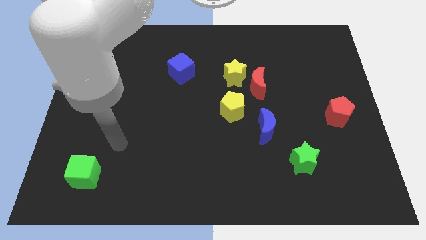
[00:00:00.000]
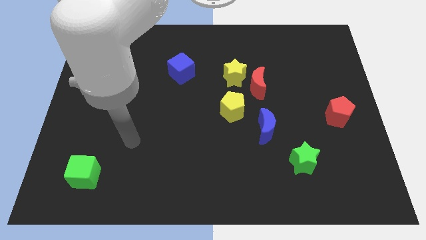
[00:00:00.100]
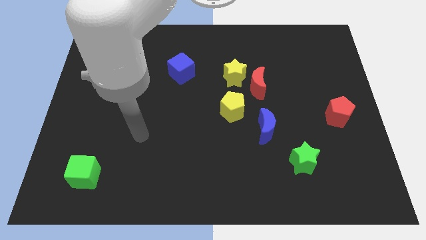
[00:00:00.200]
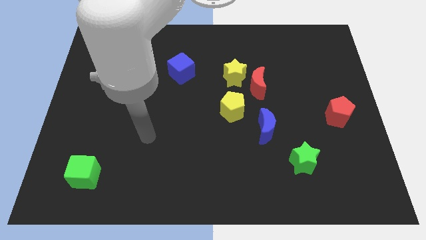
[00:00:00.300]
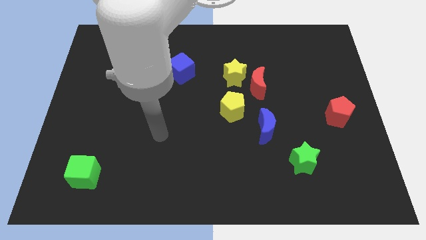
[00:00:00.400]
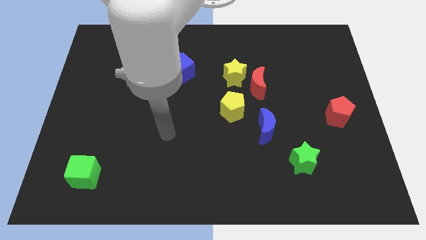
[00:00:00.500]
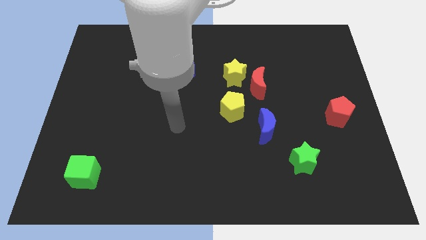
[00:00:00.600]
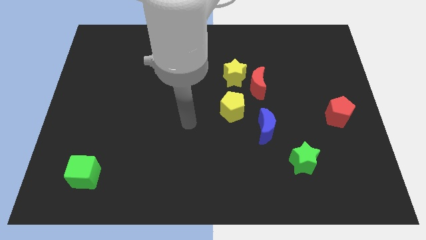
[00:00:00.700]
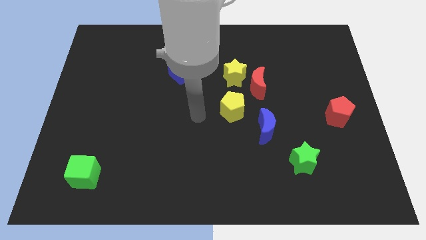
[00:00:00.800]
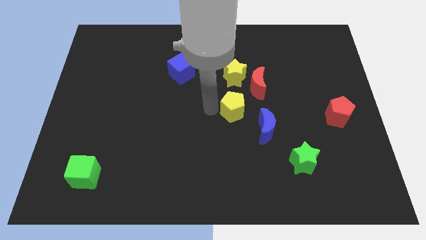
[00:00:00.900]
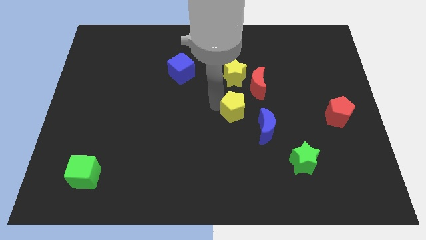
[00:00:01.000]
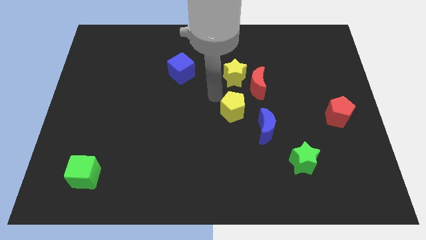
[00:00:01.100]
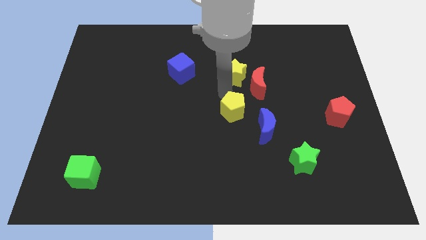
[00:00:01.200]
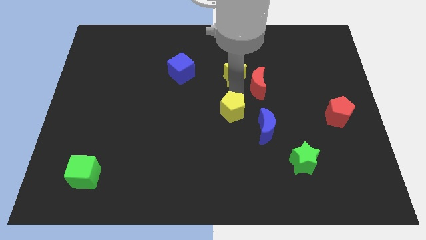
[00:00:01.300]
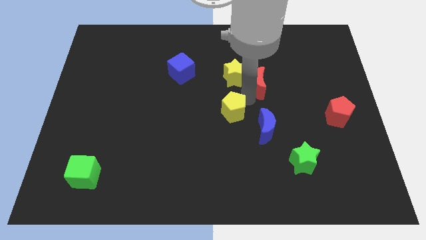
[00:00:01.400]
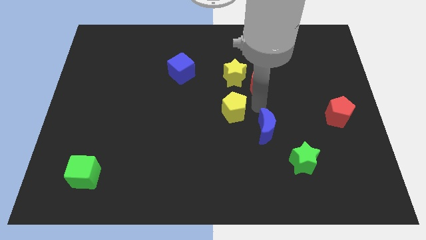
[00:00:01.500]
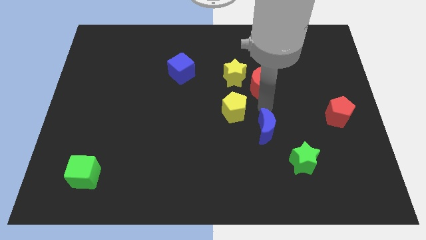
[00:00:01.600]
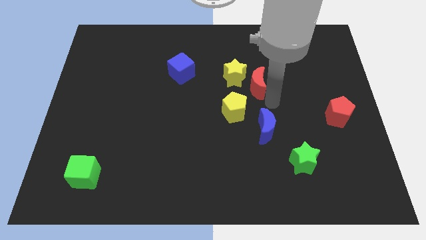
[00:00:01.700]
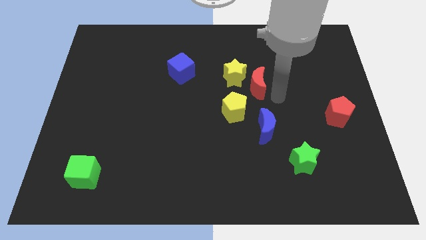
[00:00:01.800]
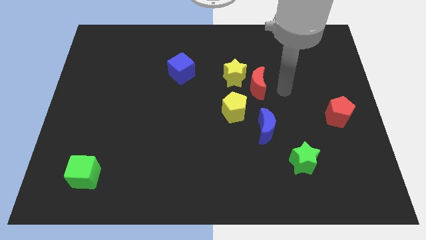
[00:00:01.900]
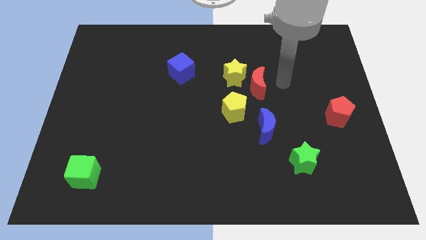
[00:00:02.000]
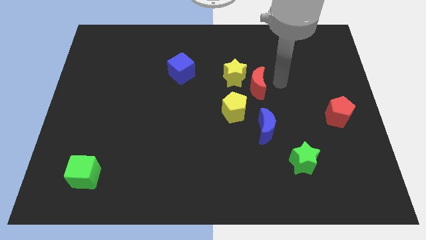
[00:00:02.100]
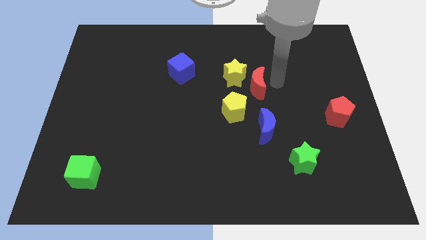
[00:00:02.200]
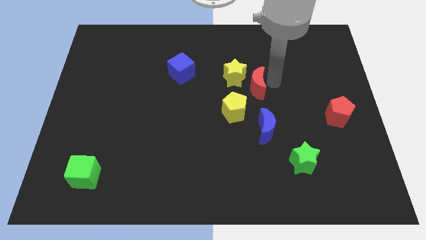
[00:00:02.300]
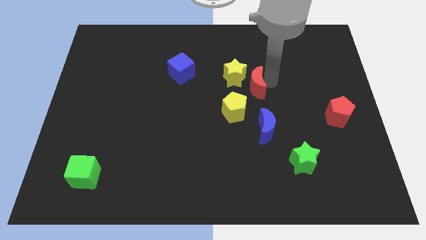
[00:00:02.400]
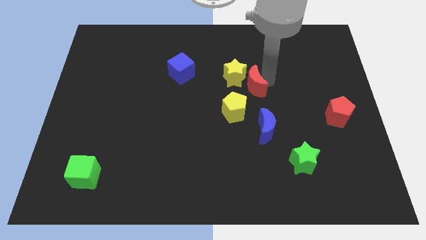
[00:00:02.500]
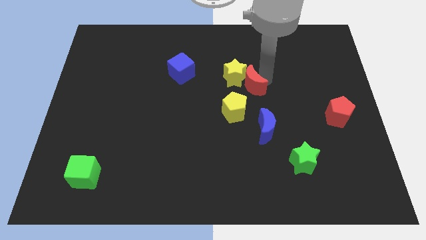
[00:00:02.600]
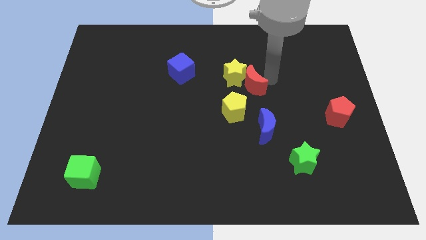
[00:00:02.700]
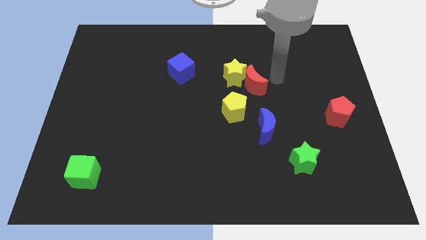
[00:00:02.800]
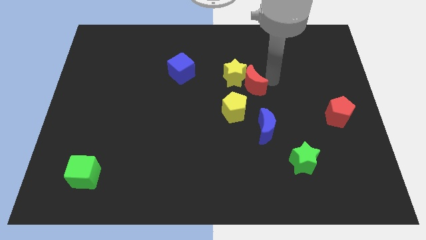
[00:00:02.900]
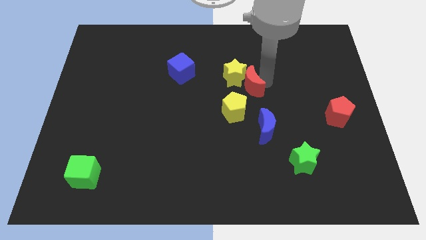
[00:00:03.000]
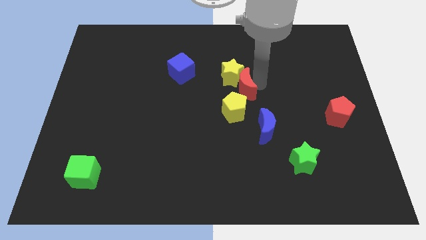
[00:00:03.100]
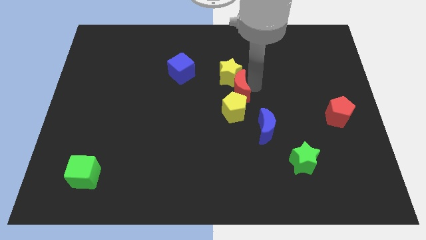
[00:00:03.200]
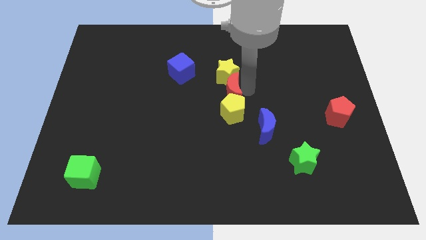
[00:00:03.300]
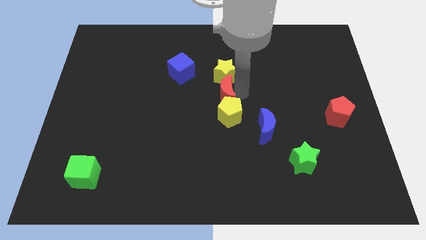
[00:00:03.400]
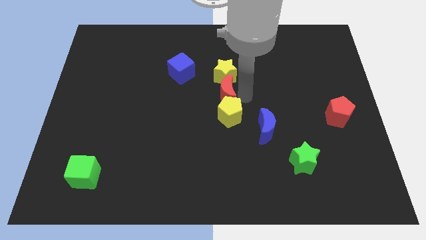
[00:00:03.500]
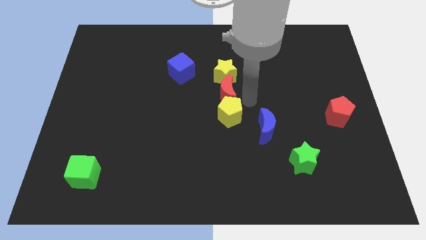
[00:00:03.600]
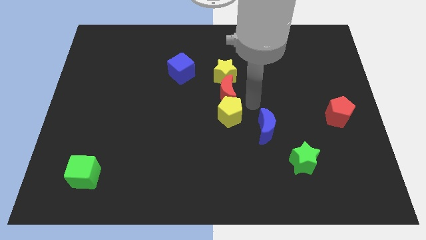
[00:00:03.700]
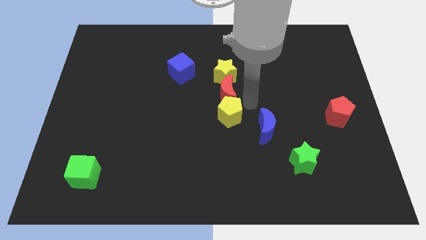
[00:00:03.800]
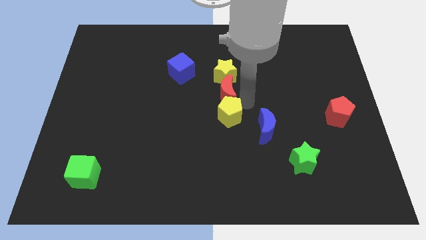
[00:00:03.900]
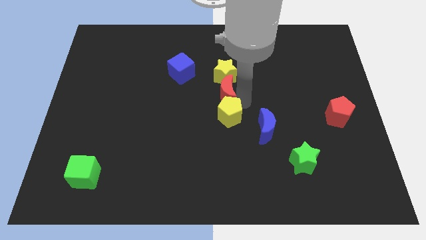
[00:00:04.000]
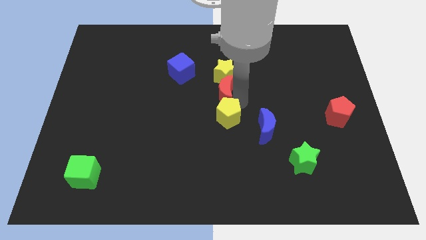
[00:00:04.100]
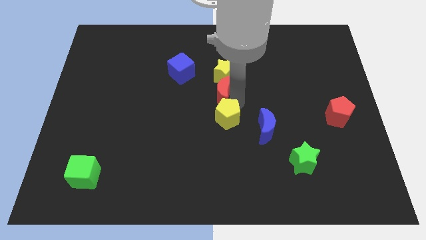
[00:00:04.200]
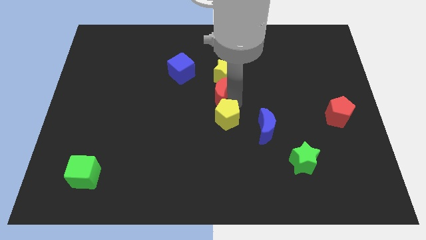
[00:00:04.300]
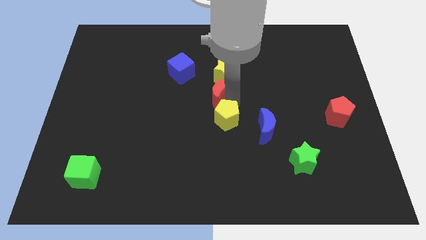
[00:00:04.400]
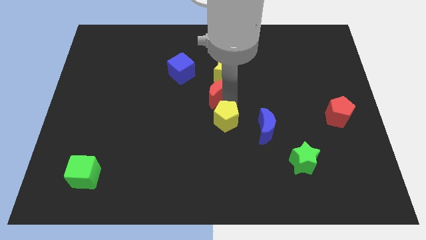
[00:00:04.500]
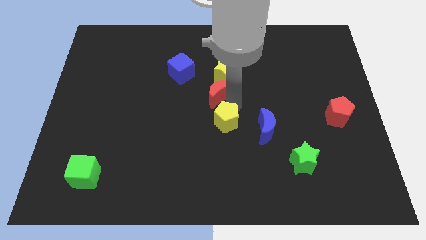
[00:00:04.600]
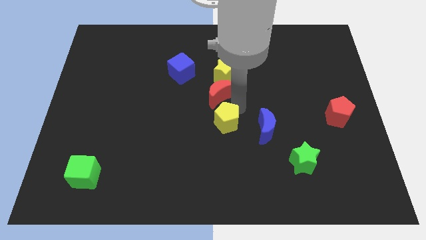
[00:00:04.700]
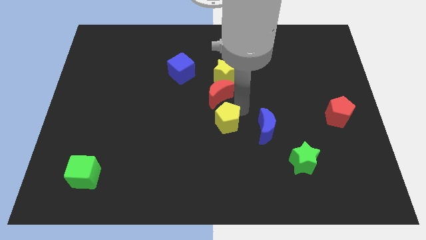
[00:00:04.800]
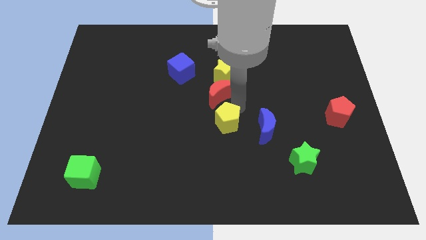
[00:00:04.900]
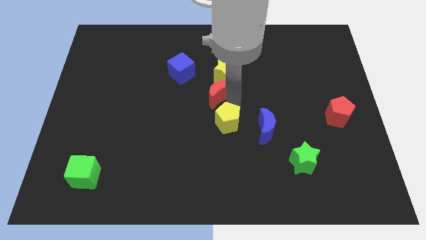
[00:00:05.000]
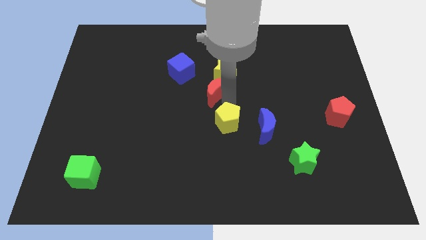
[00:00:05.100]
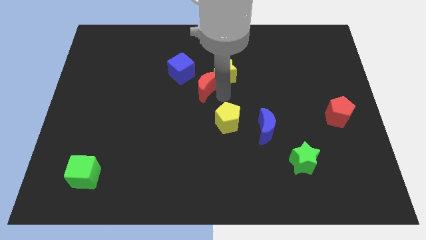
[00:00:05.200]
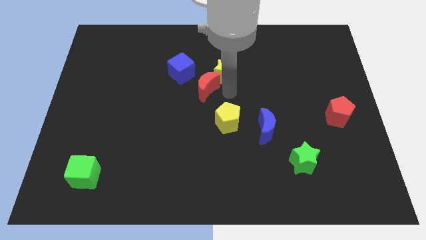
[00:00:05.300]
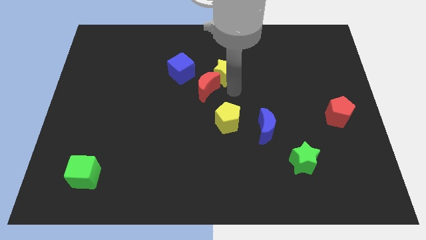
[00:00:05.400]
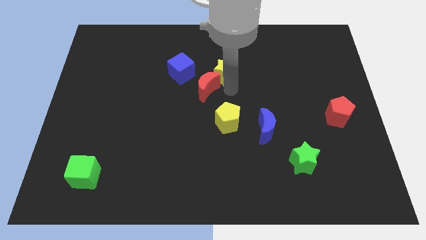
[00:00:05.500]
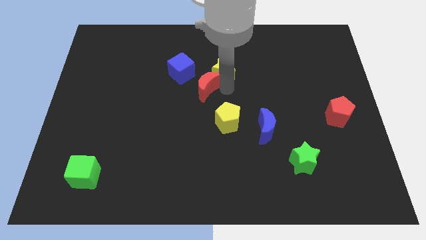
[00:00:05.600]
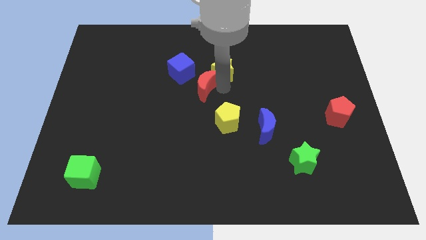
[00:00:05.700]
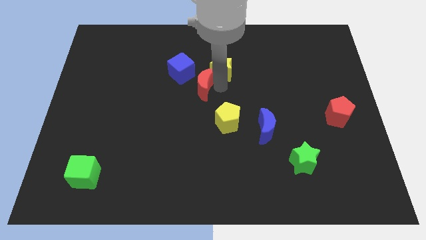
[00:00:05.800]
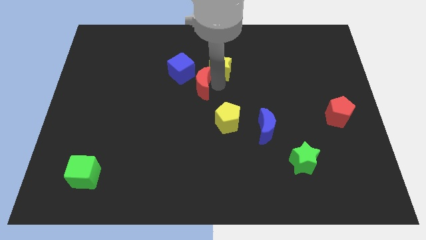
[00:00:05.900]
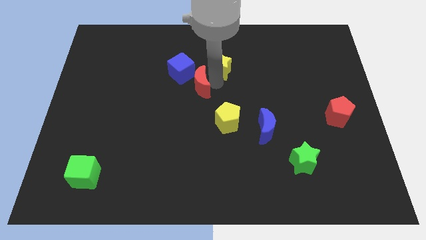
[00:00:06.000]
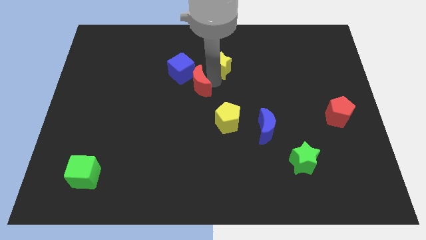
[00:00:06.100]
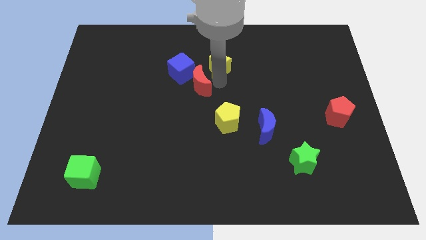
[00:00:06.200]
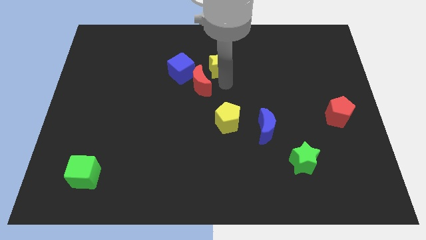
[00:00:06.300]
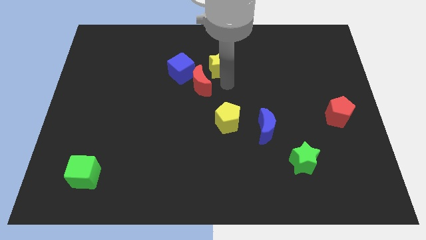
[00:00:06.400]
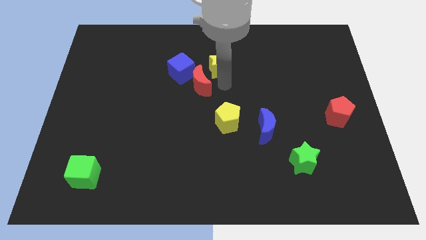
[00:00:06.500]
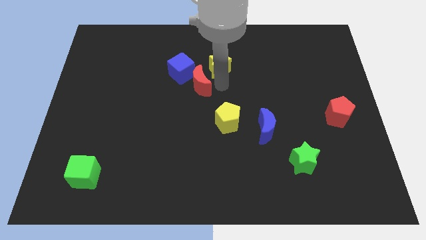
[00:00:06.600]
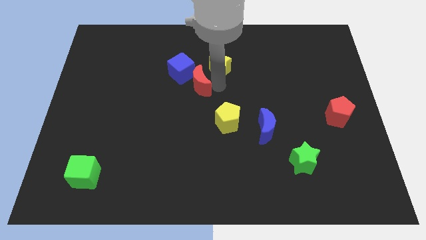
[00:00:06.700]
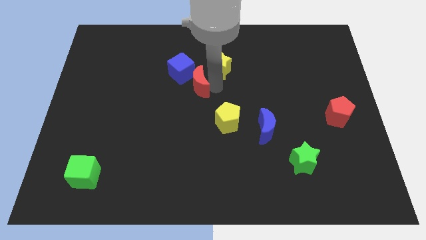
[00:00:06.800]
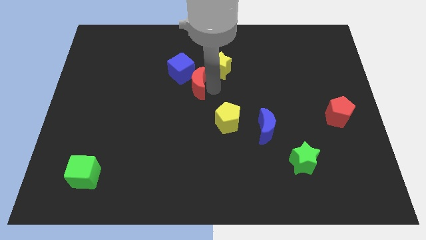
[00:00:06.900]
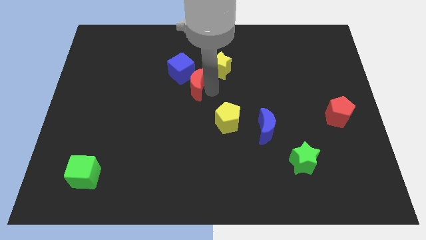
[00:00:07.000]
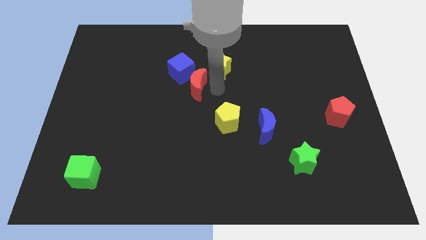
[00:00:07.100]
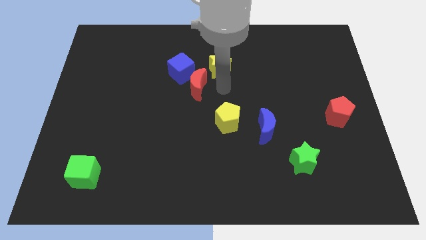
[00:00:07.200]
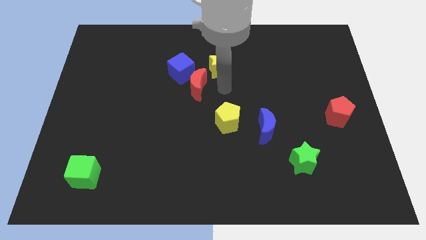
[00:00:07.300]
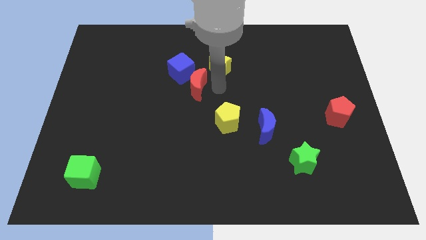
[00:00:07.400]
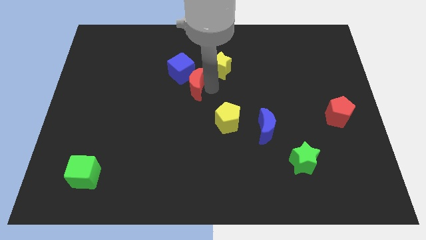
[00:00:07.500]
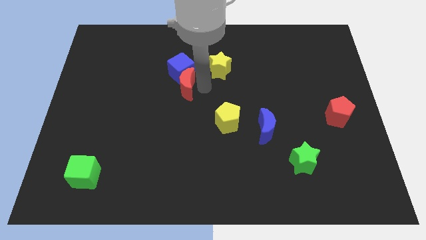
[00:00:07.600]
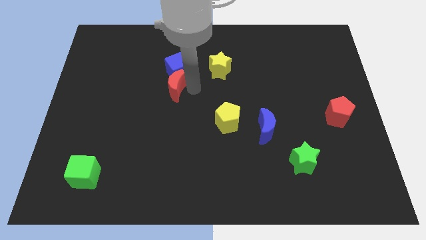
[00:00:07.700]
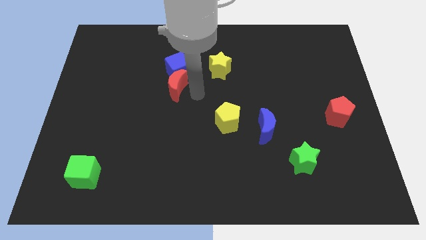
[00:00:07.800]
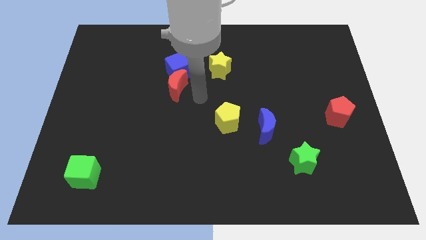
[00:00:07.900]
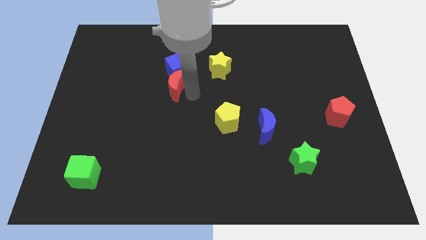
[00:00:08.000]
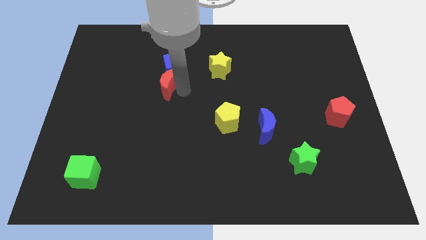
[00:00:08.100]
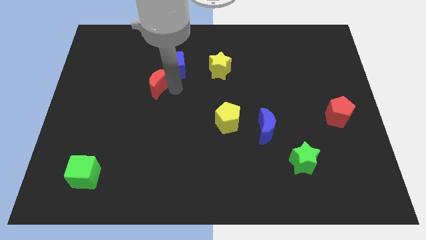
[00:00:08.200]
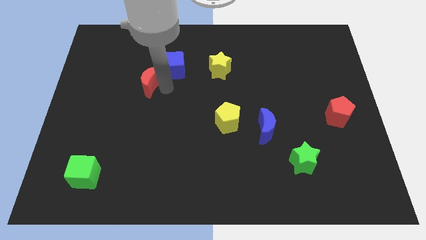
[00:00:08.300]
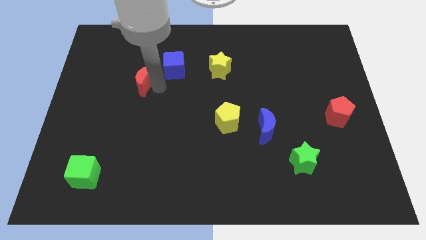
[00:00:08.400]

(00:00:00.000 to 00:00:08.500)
slide the red moon to the left of the blue cube
